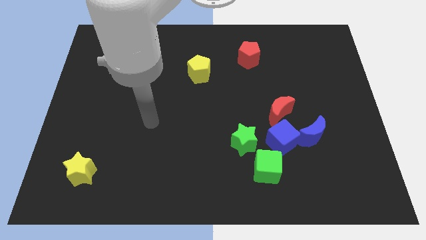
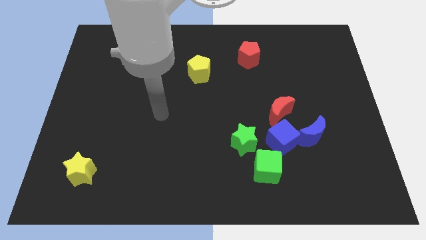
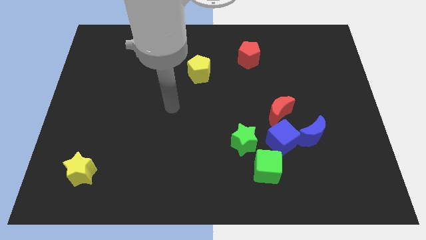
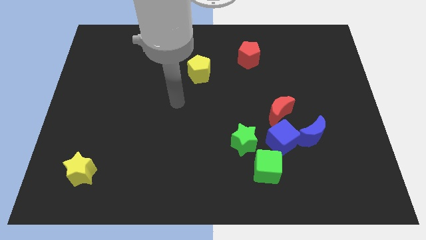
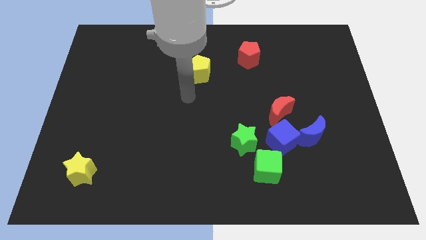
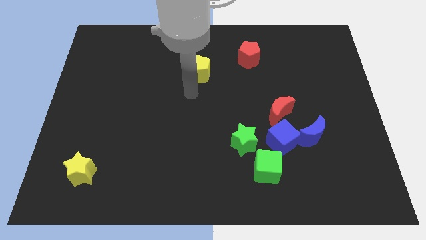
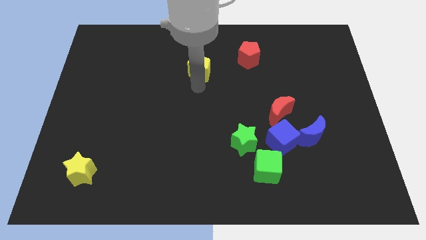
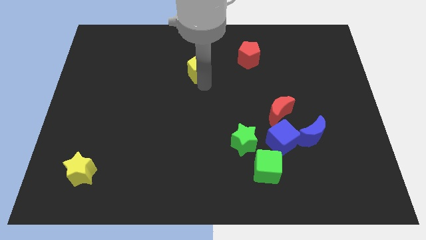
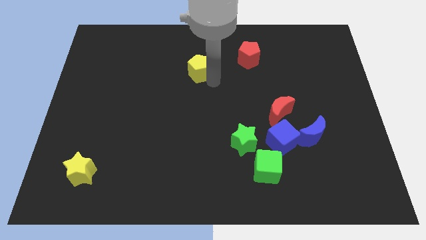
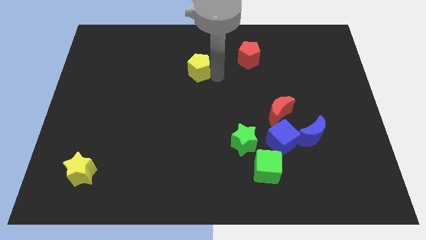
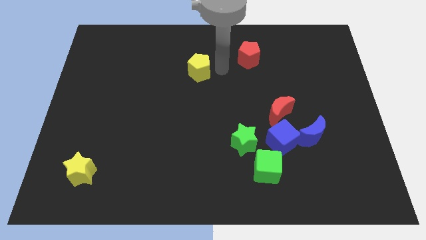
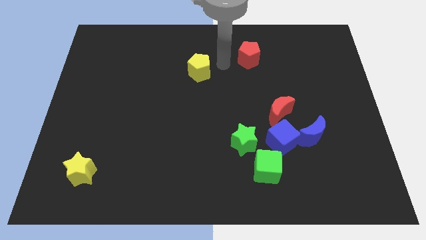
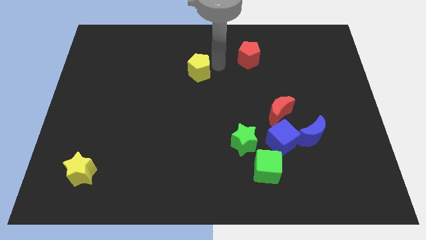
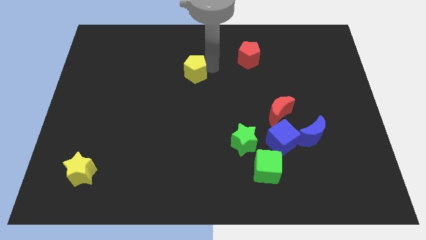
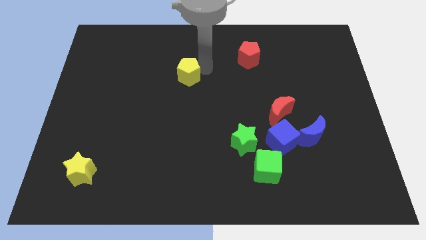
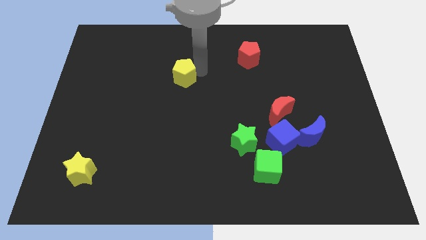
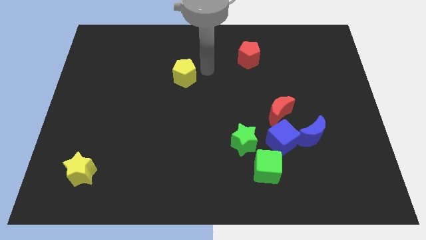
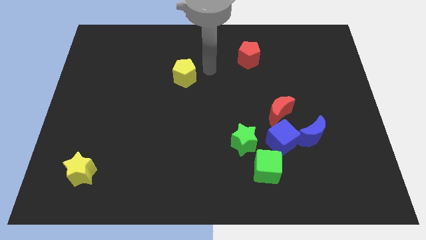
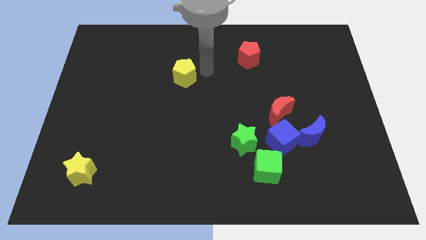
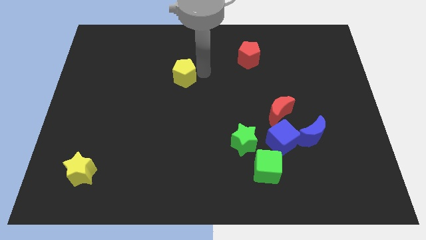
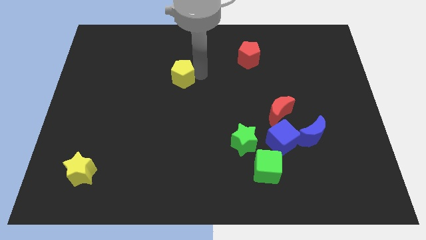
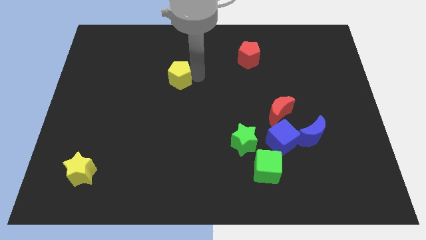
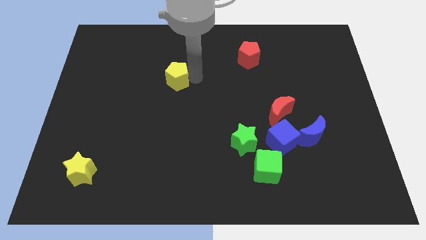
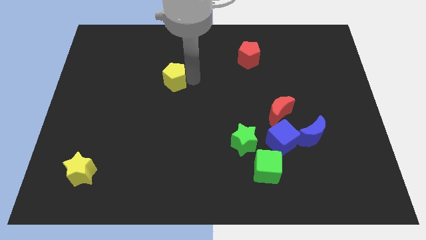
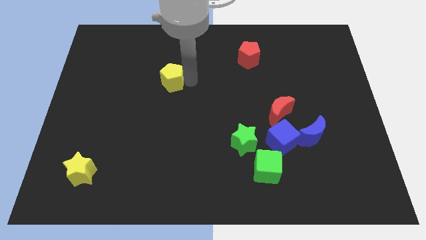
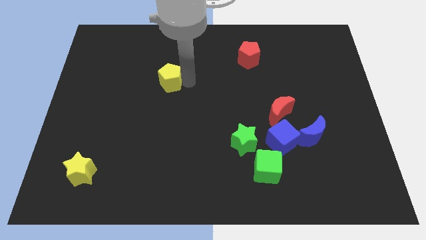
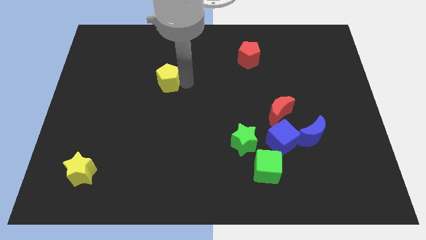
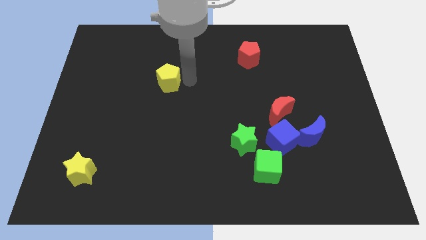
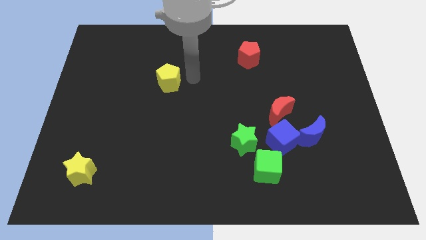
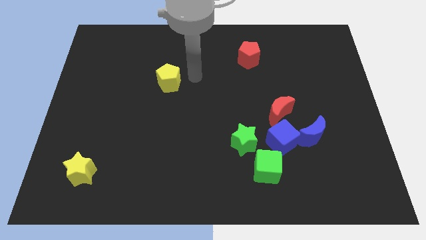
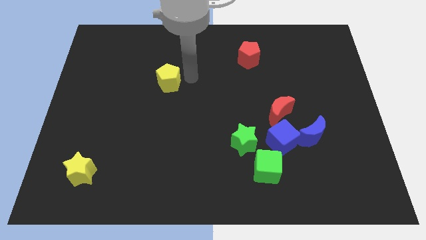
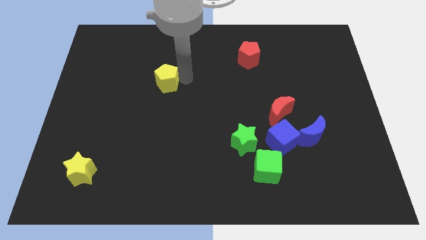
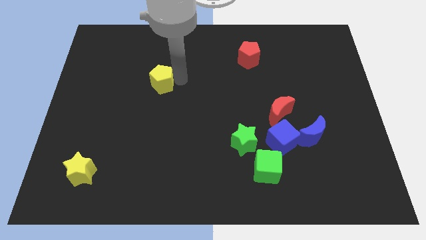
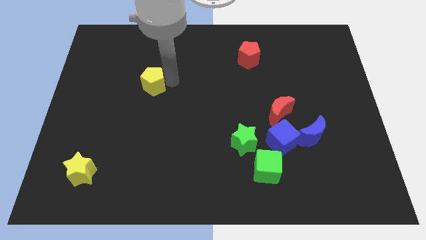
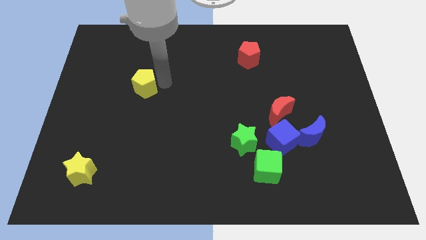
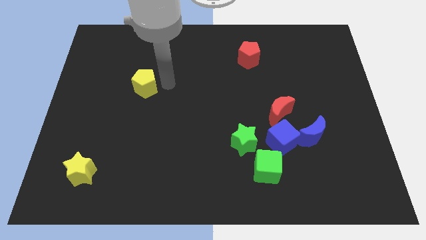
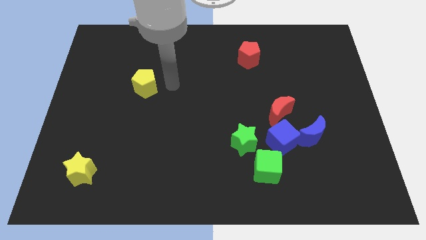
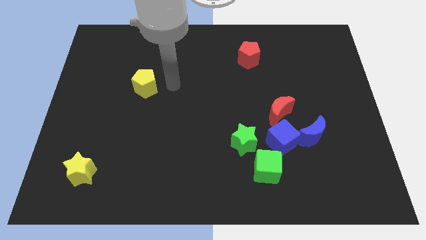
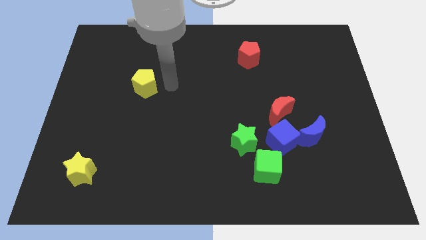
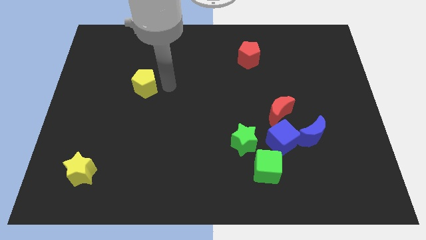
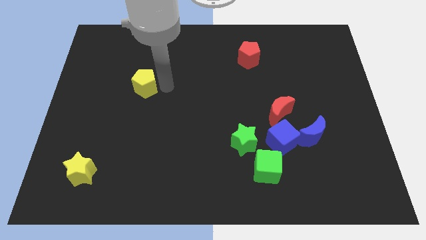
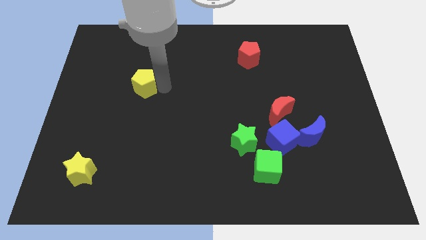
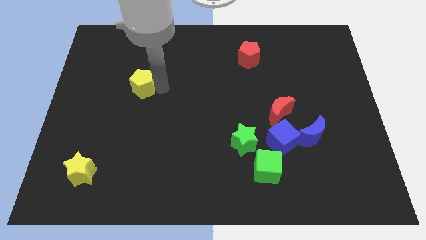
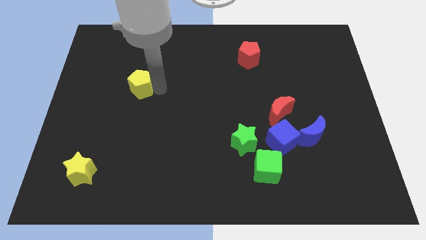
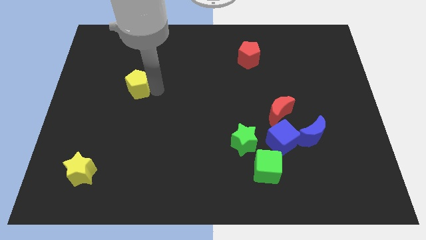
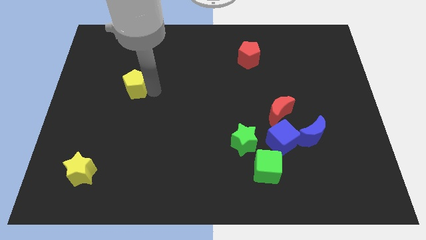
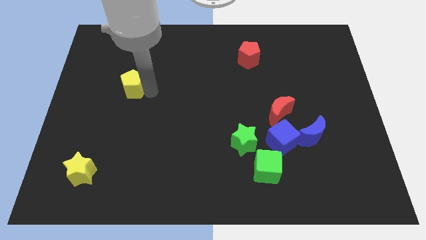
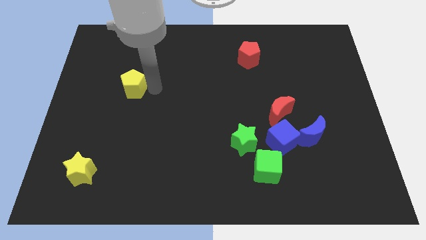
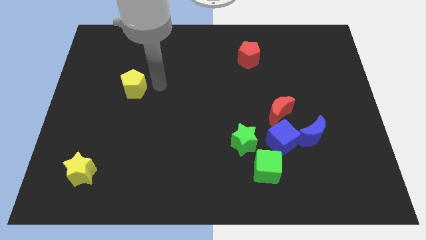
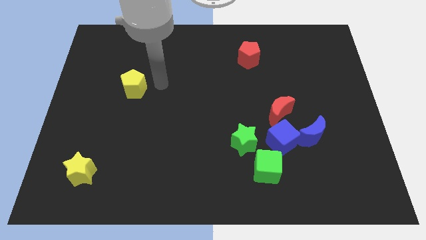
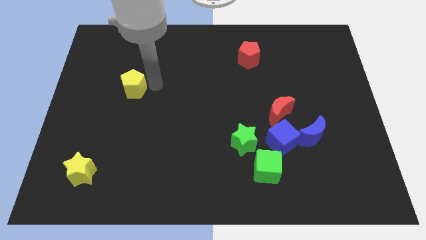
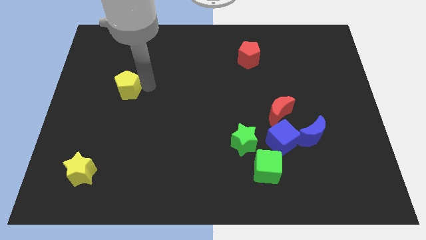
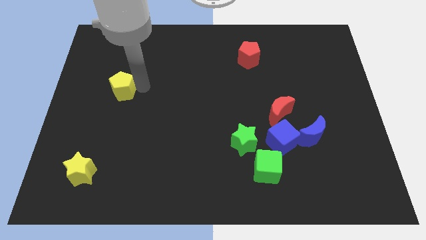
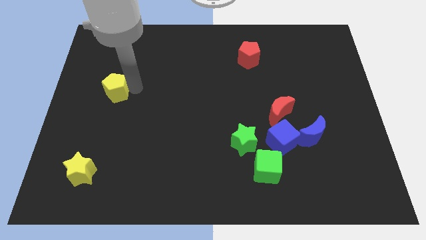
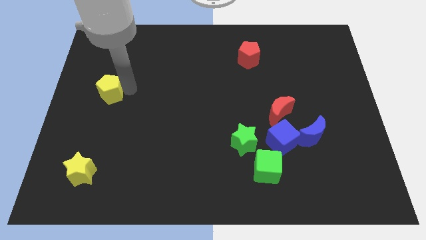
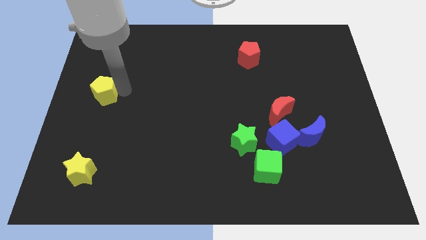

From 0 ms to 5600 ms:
push the yellow pentagon to the center left

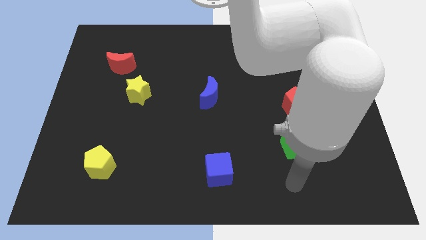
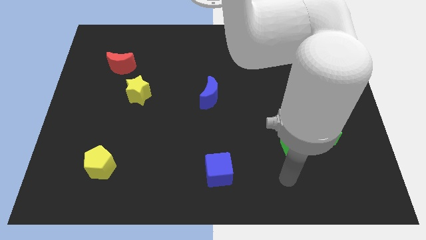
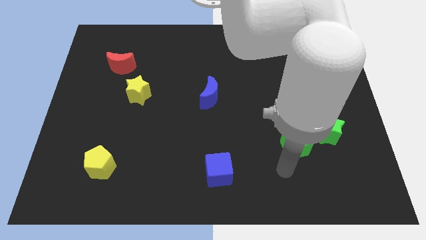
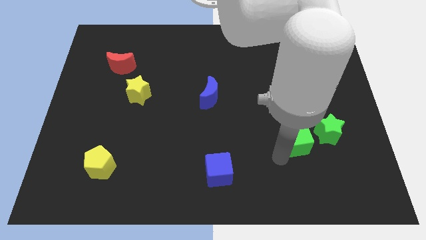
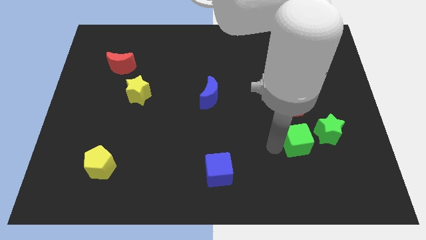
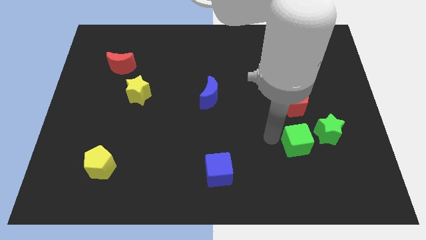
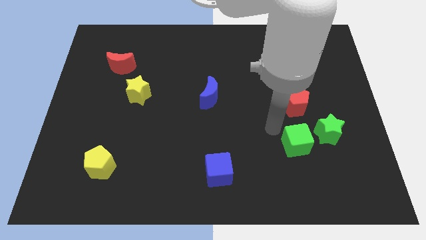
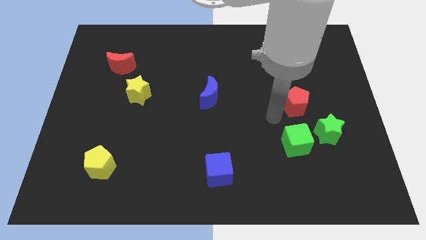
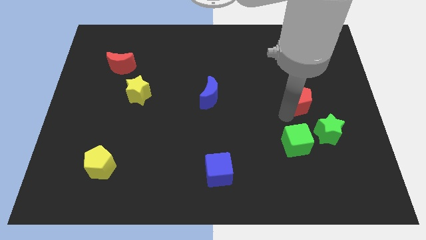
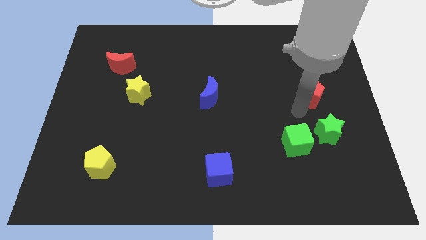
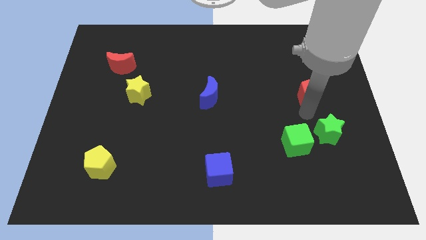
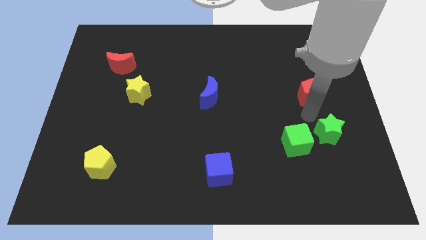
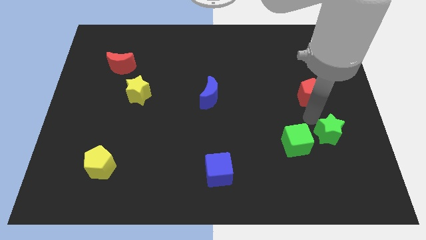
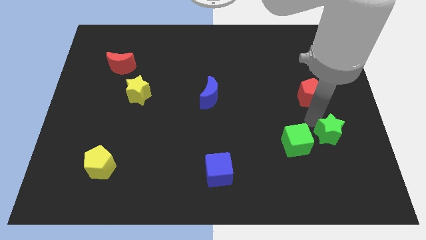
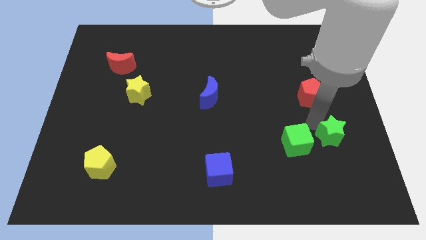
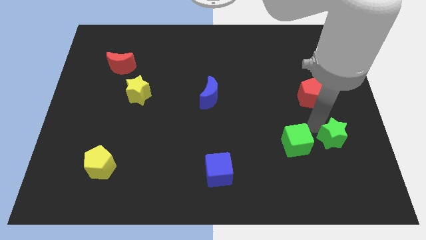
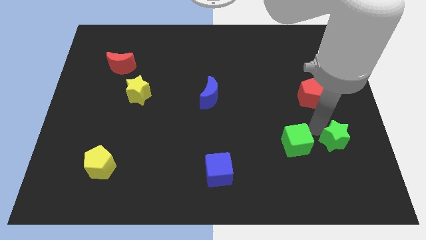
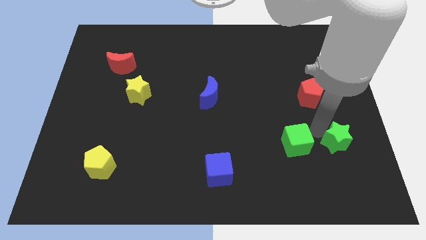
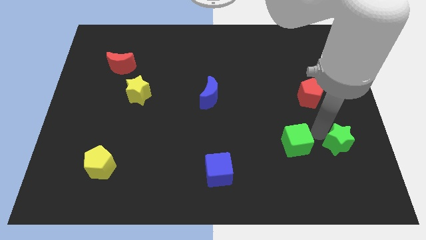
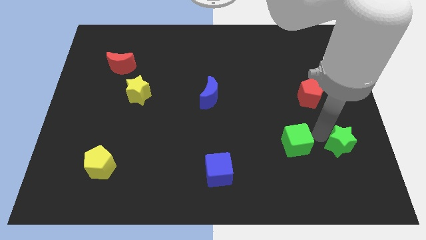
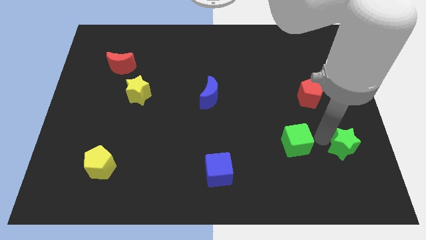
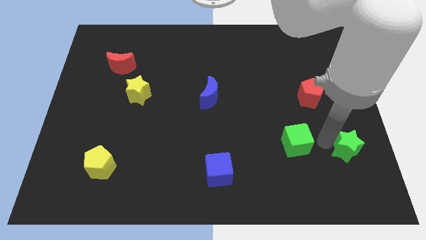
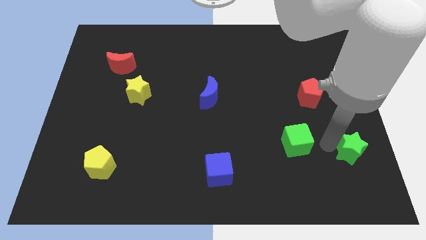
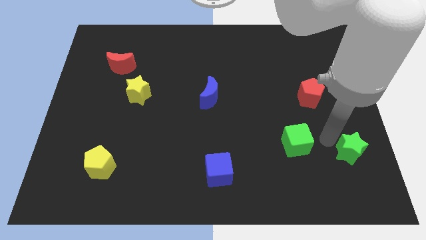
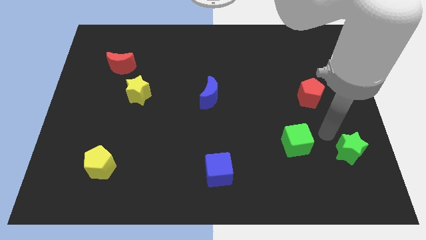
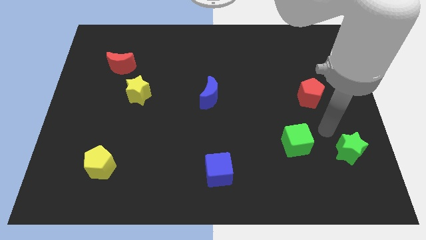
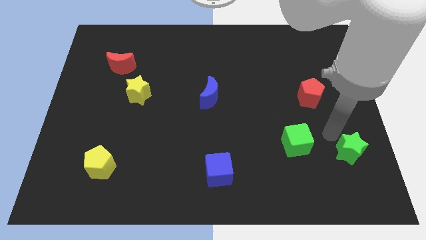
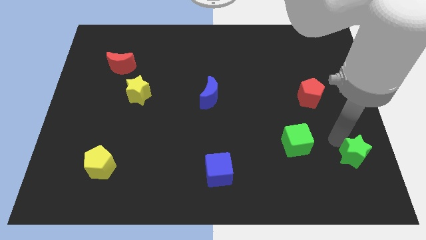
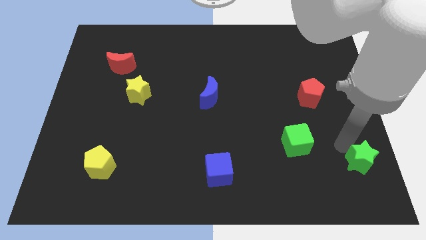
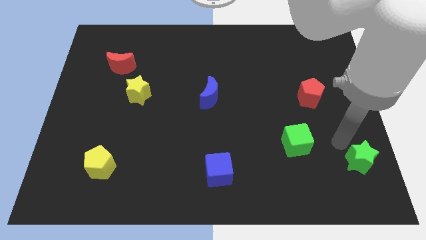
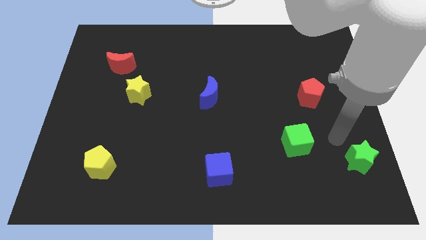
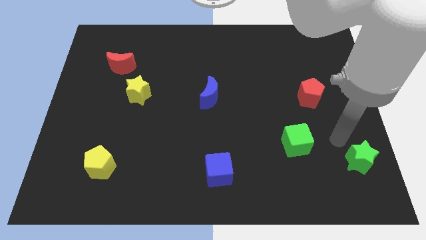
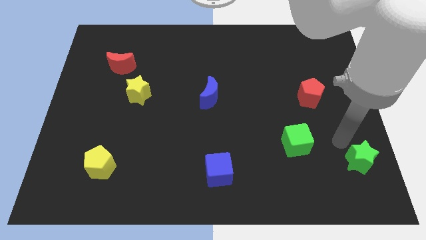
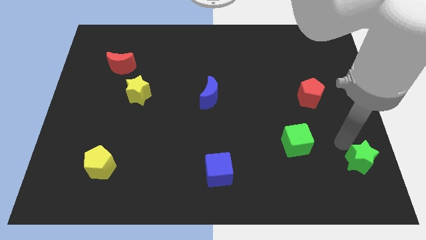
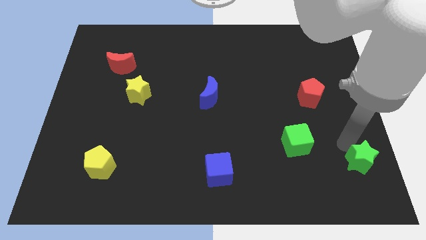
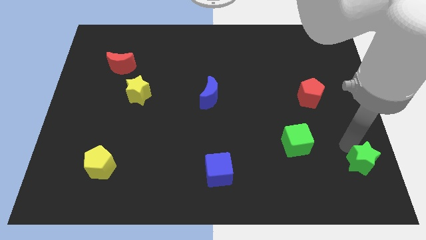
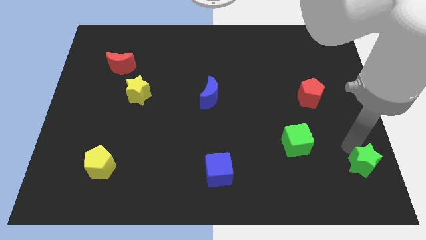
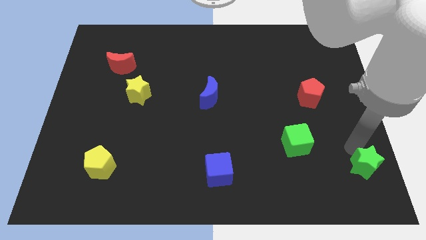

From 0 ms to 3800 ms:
put the green star to the bottom right corner
